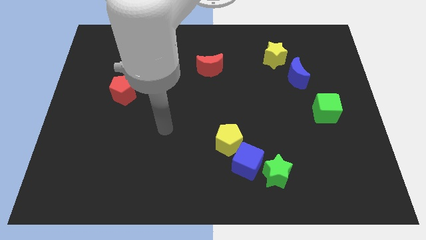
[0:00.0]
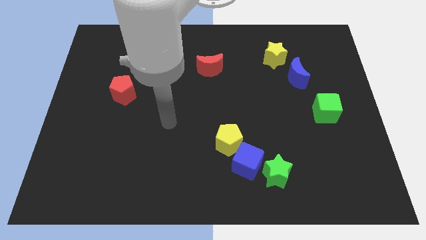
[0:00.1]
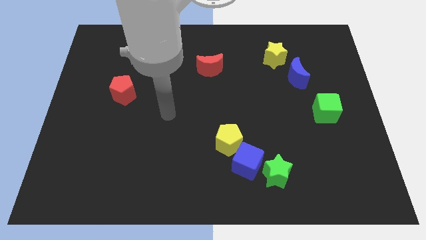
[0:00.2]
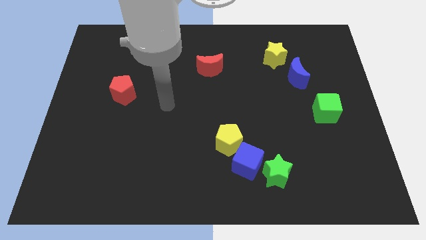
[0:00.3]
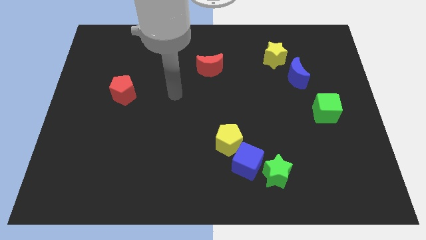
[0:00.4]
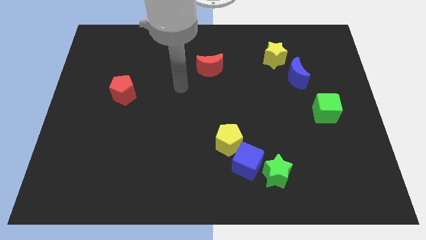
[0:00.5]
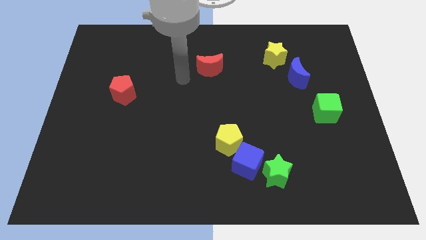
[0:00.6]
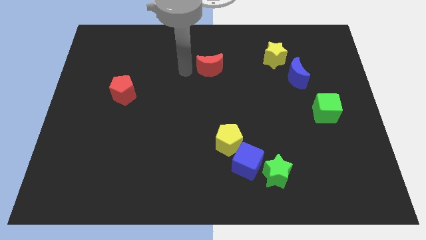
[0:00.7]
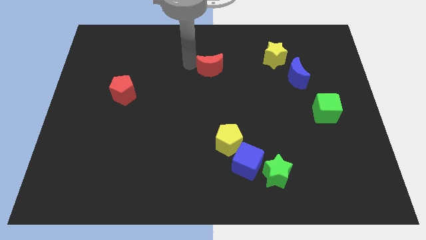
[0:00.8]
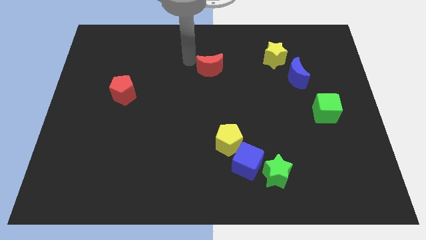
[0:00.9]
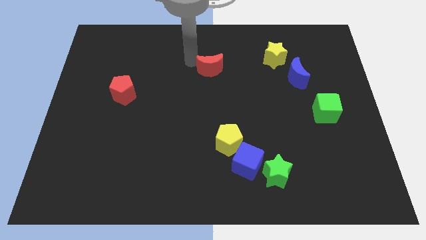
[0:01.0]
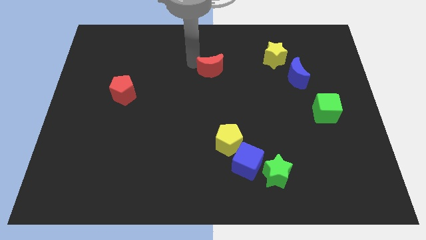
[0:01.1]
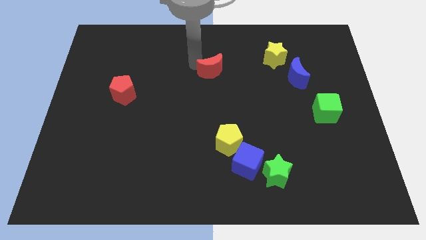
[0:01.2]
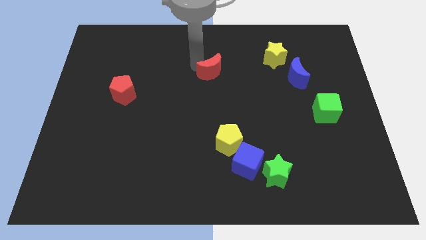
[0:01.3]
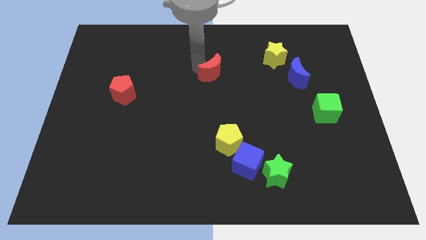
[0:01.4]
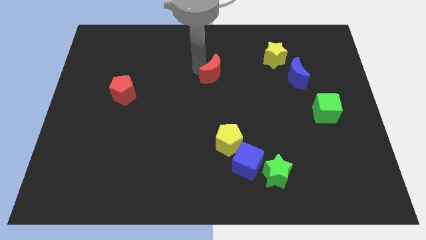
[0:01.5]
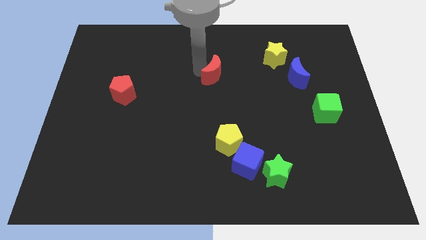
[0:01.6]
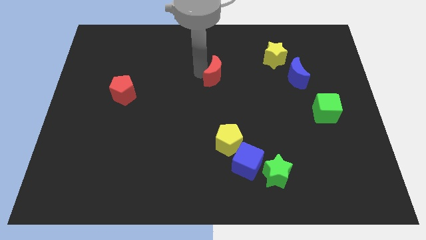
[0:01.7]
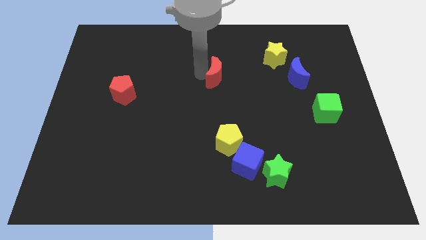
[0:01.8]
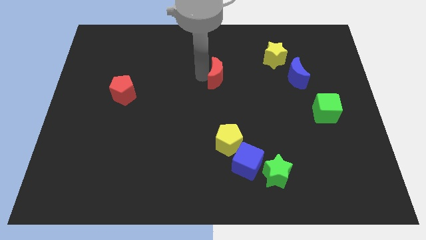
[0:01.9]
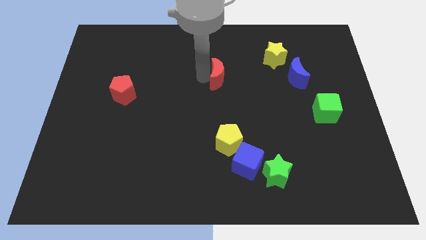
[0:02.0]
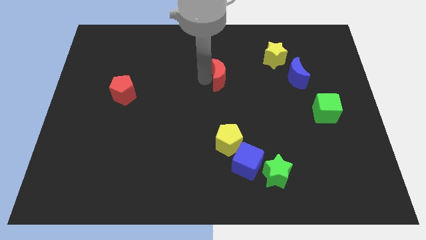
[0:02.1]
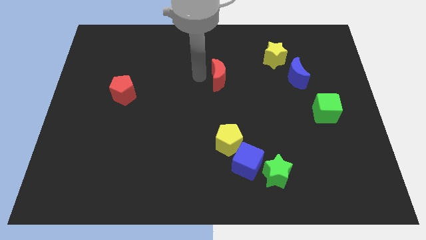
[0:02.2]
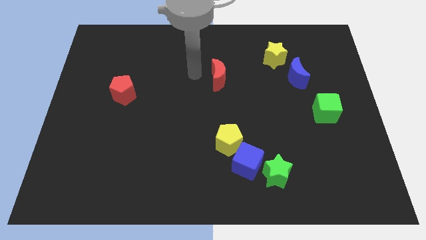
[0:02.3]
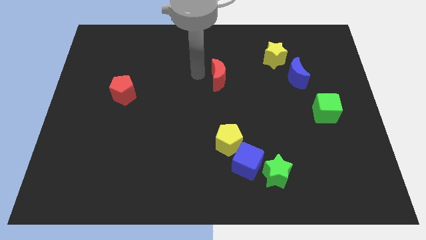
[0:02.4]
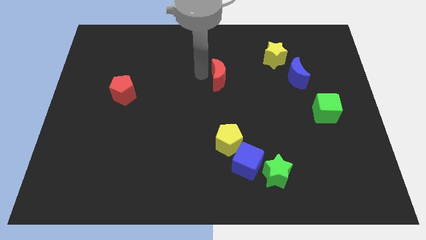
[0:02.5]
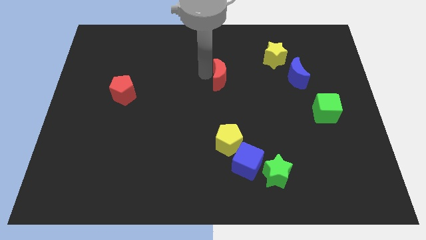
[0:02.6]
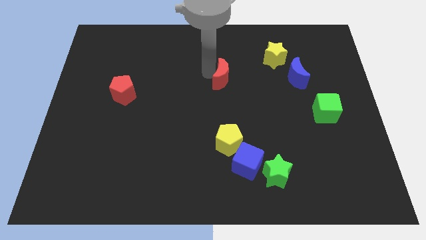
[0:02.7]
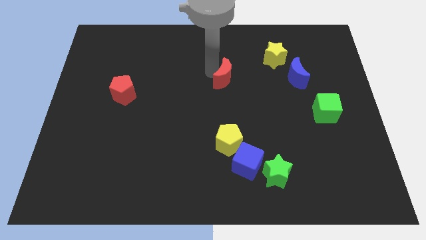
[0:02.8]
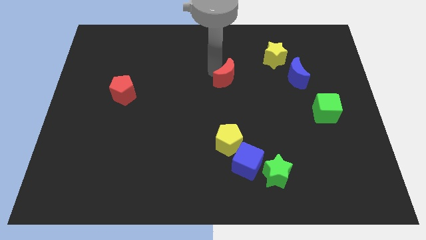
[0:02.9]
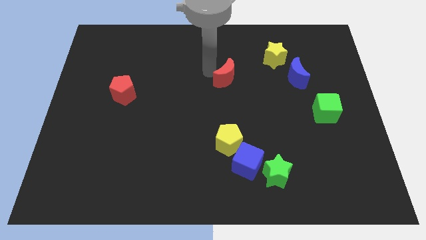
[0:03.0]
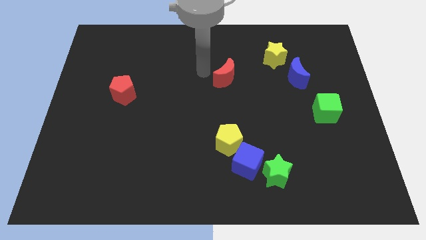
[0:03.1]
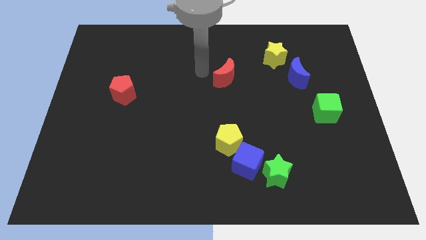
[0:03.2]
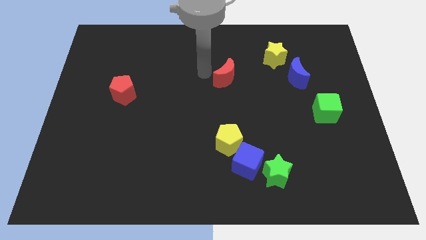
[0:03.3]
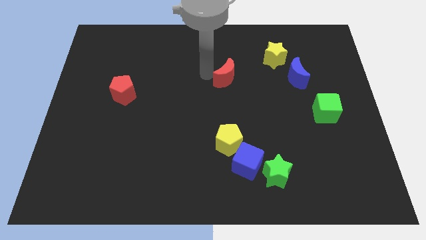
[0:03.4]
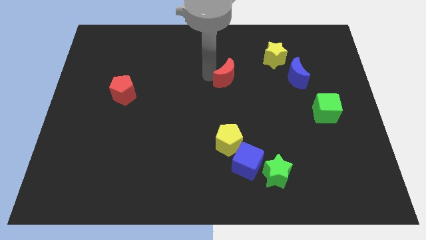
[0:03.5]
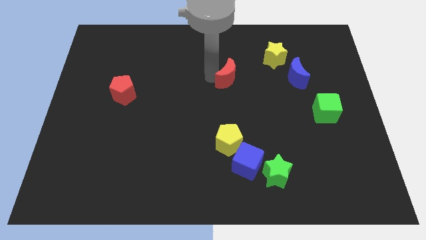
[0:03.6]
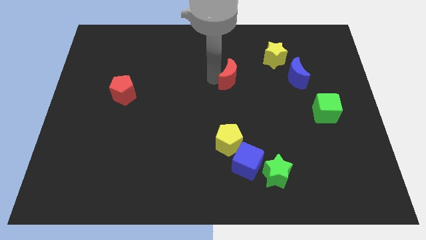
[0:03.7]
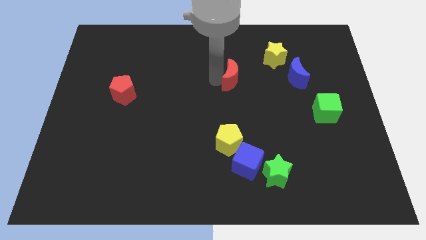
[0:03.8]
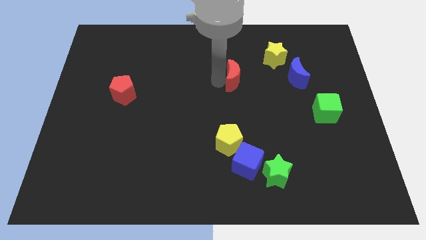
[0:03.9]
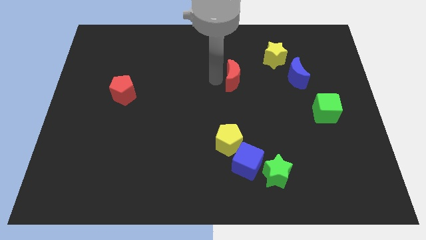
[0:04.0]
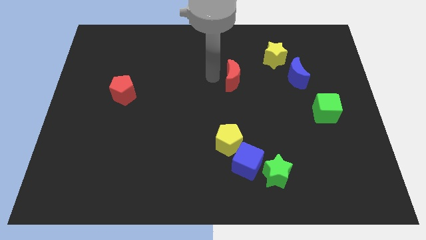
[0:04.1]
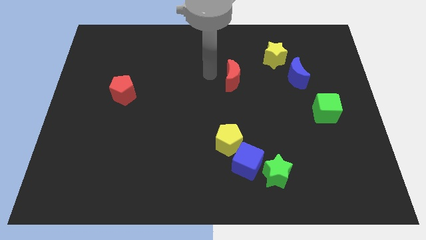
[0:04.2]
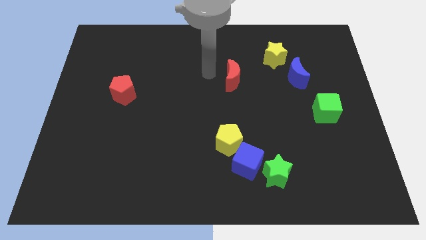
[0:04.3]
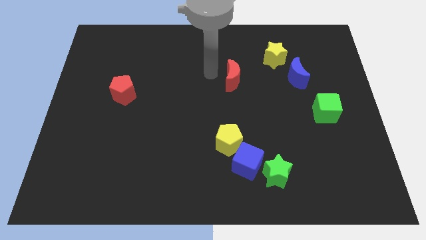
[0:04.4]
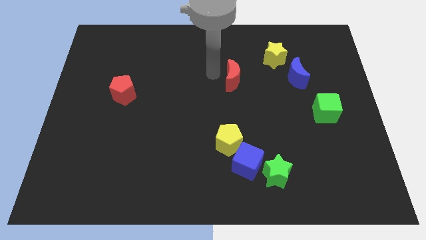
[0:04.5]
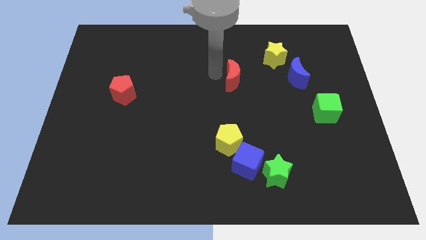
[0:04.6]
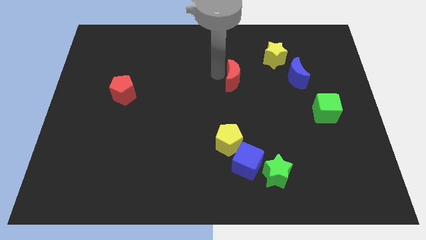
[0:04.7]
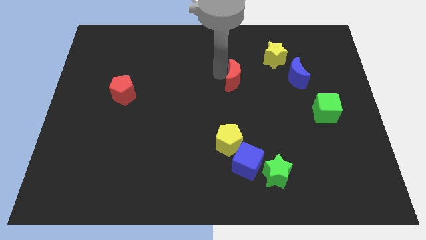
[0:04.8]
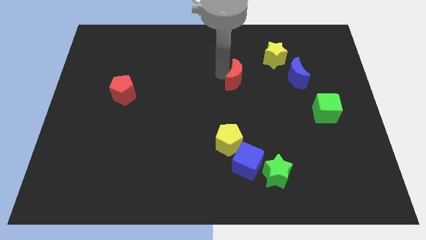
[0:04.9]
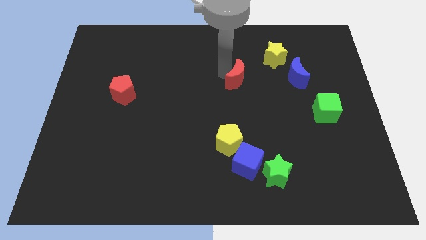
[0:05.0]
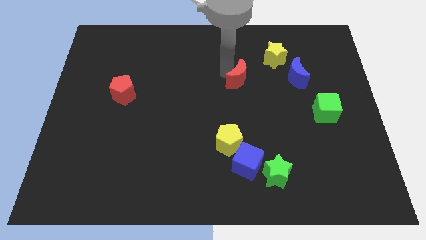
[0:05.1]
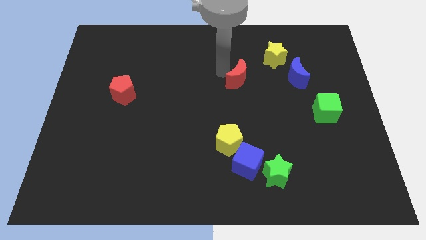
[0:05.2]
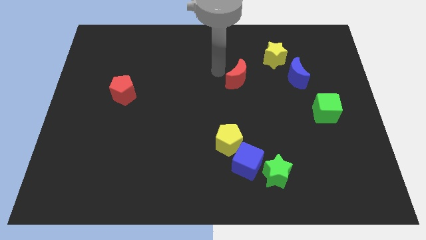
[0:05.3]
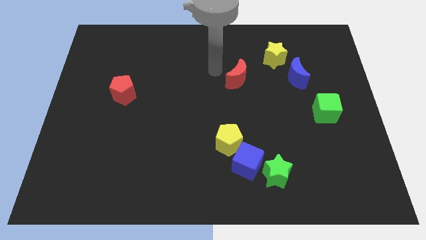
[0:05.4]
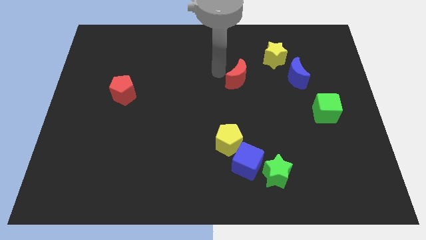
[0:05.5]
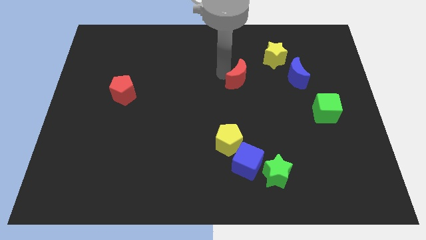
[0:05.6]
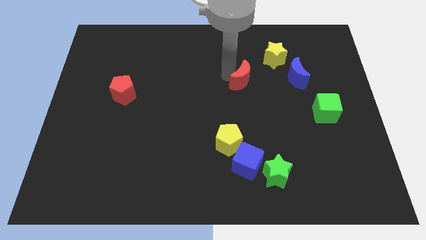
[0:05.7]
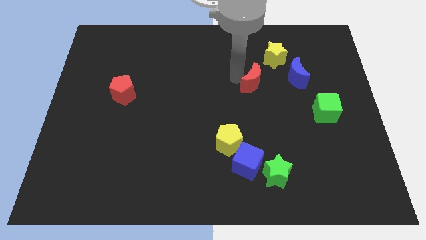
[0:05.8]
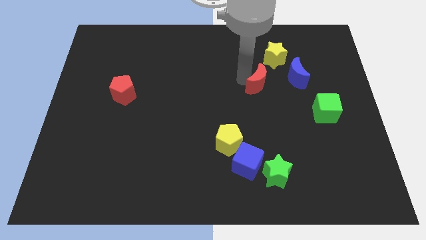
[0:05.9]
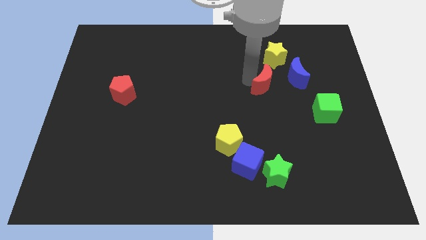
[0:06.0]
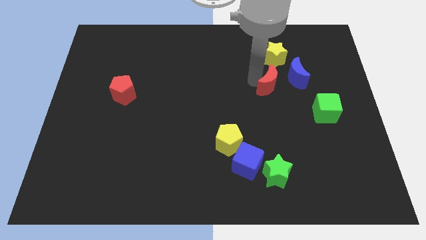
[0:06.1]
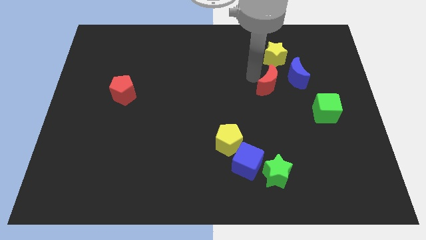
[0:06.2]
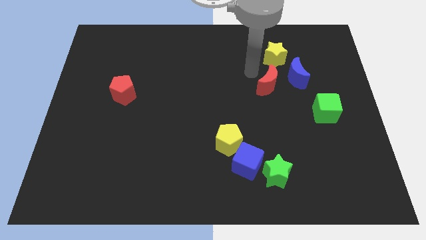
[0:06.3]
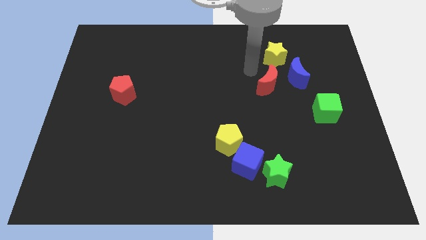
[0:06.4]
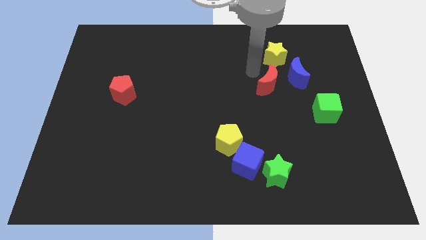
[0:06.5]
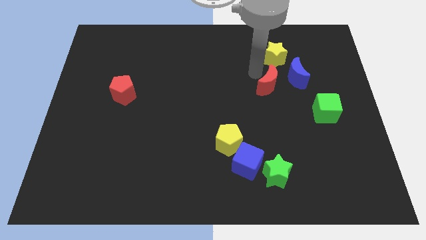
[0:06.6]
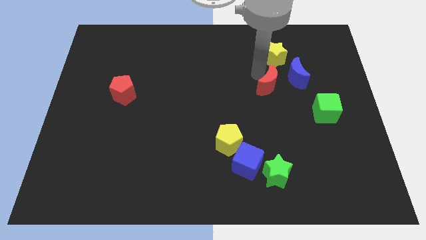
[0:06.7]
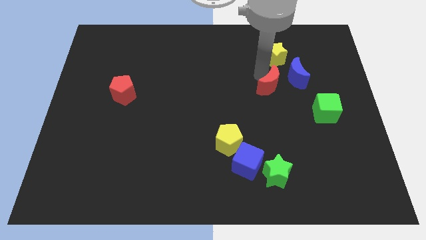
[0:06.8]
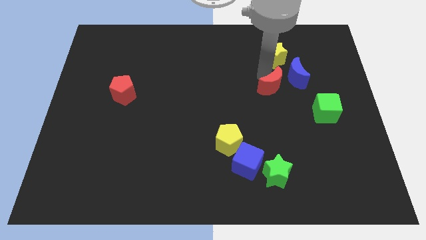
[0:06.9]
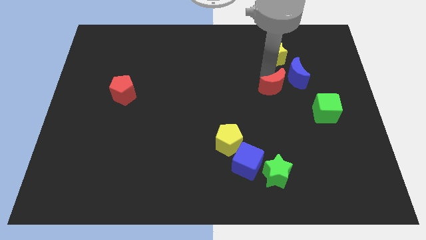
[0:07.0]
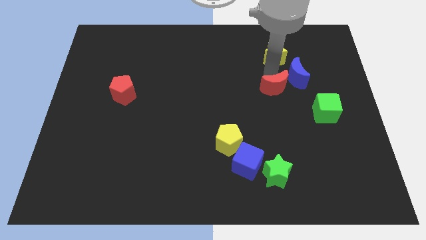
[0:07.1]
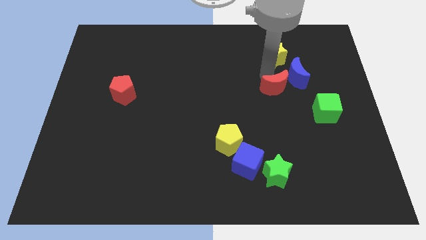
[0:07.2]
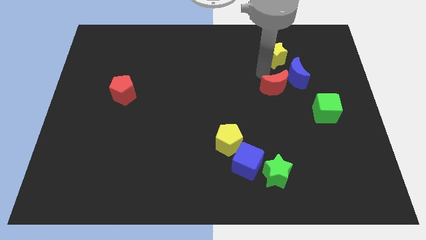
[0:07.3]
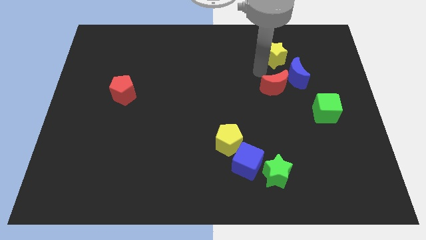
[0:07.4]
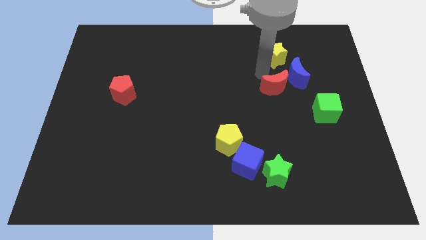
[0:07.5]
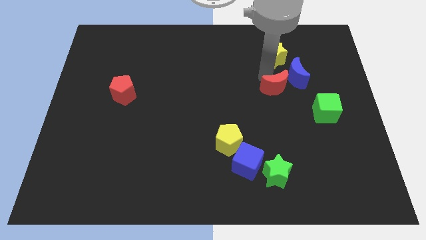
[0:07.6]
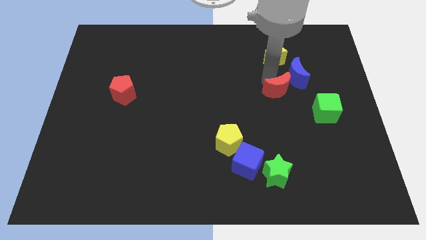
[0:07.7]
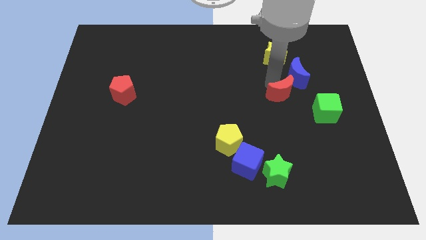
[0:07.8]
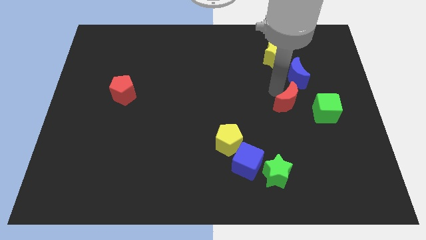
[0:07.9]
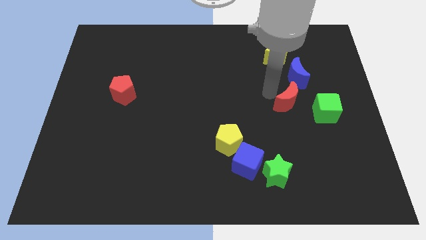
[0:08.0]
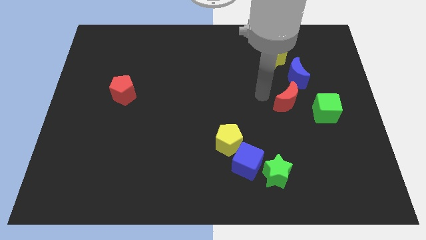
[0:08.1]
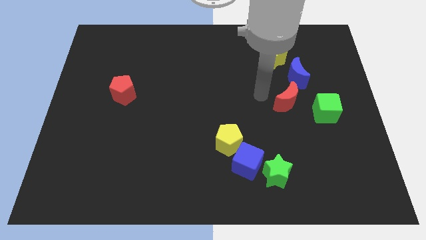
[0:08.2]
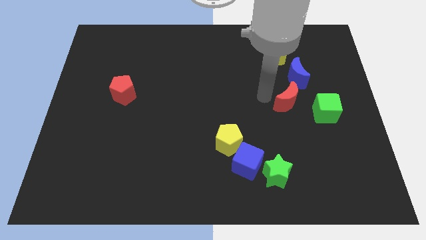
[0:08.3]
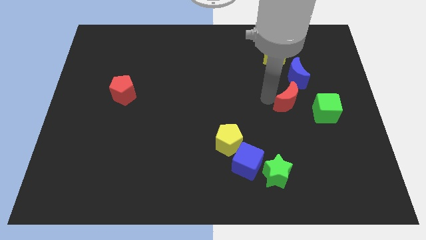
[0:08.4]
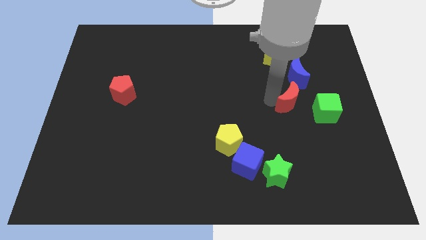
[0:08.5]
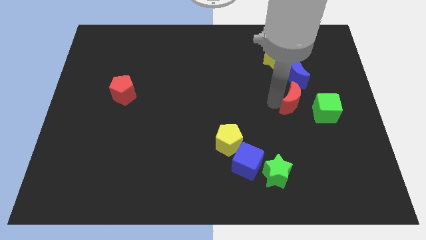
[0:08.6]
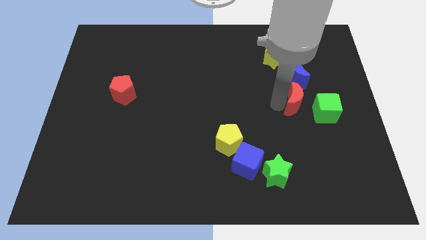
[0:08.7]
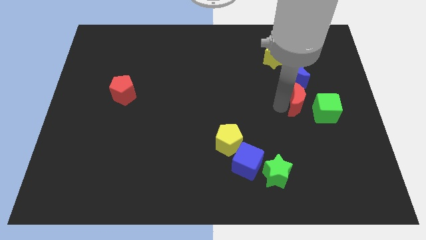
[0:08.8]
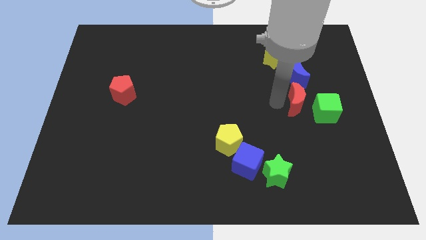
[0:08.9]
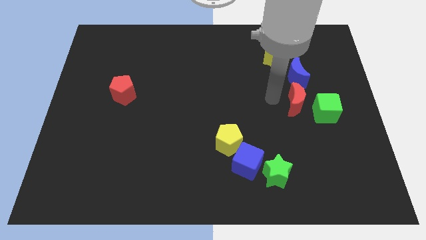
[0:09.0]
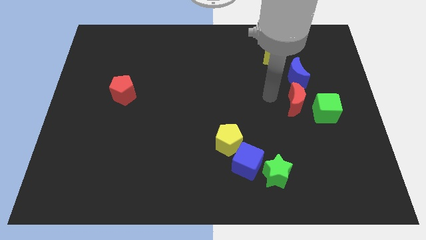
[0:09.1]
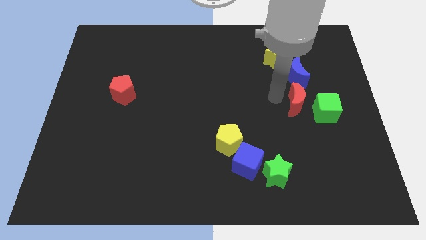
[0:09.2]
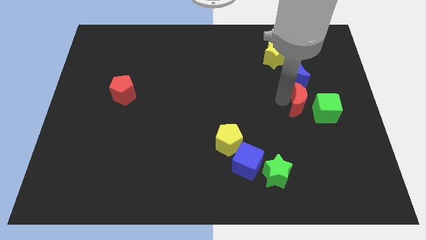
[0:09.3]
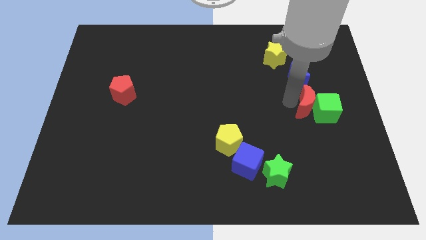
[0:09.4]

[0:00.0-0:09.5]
slide the red moon close to the green cube
